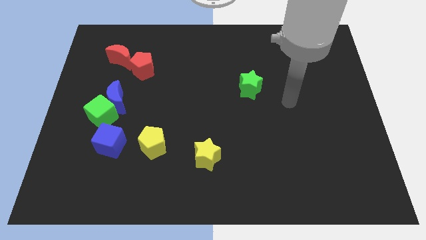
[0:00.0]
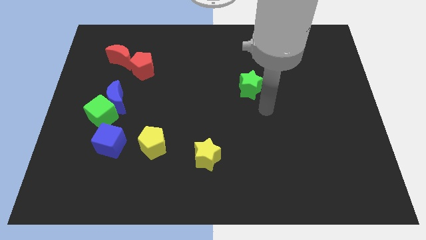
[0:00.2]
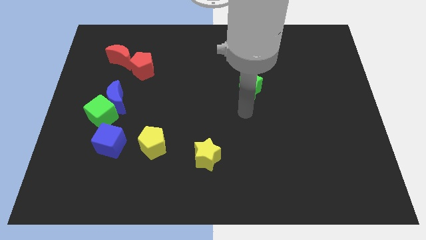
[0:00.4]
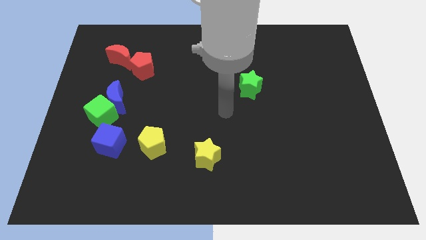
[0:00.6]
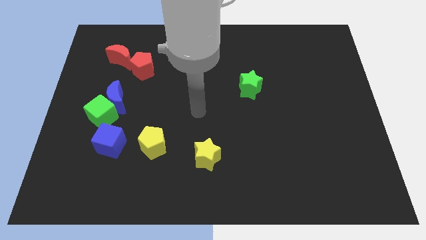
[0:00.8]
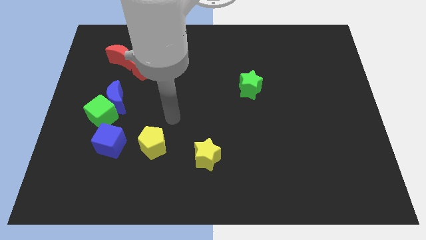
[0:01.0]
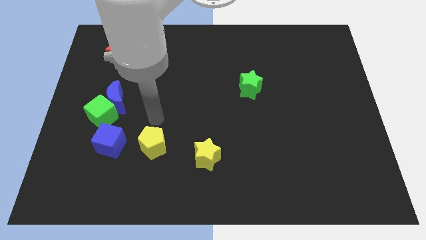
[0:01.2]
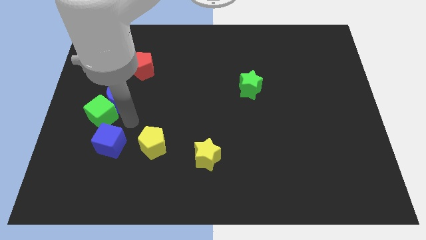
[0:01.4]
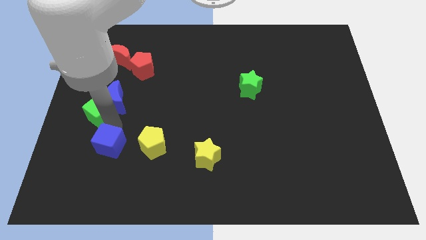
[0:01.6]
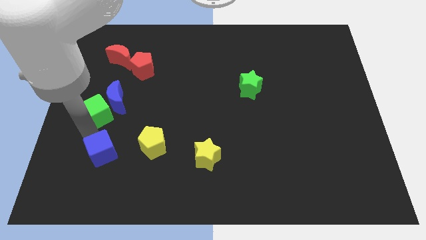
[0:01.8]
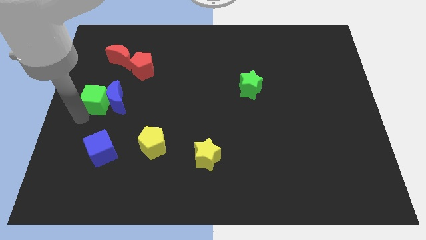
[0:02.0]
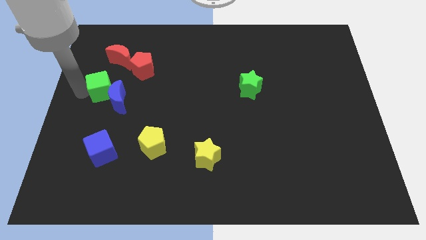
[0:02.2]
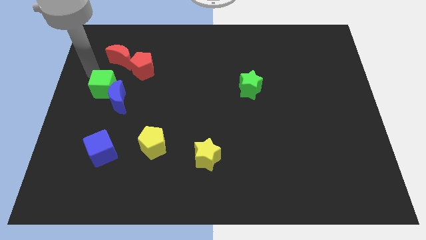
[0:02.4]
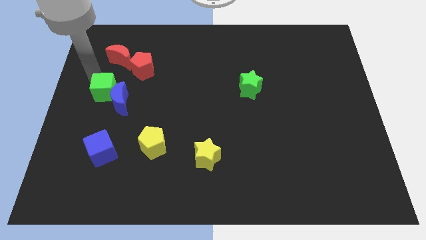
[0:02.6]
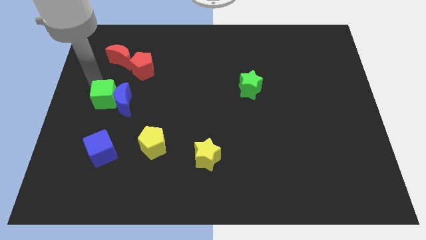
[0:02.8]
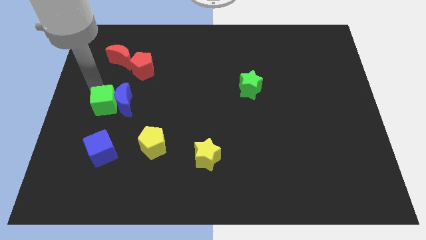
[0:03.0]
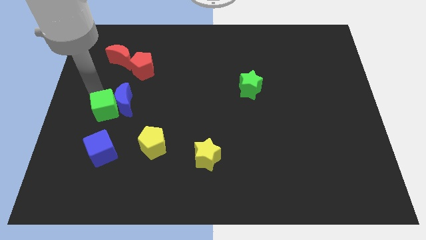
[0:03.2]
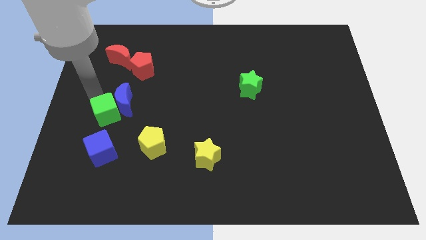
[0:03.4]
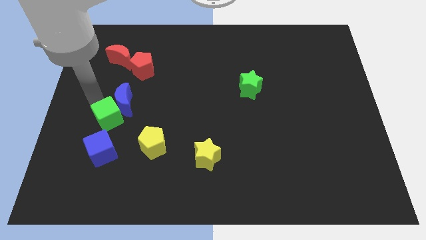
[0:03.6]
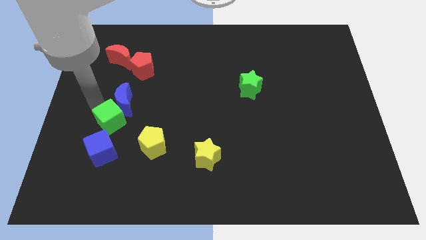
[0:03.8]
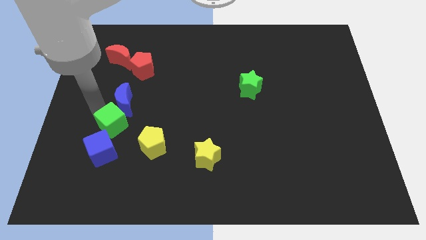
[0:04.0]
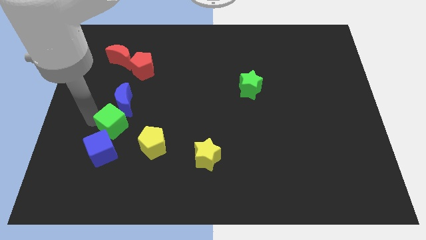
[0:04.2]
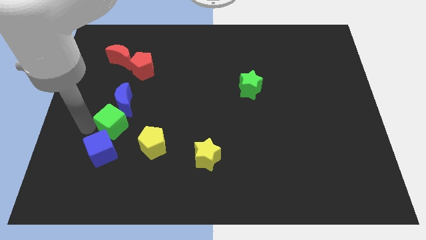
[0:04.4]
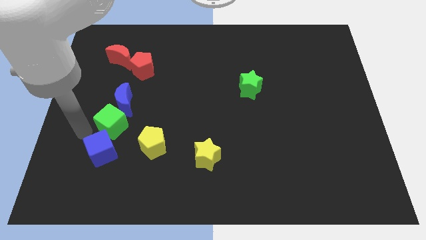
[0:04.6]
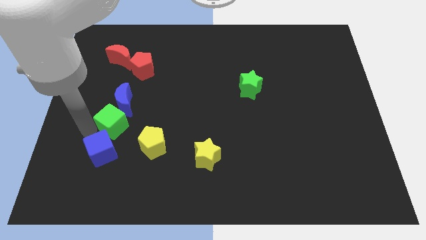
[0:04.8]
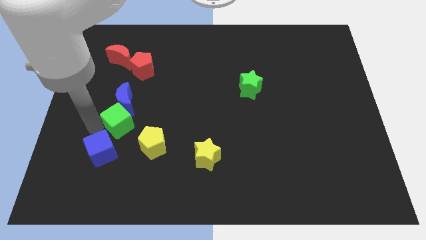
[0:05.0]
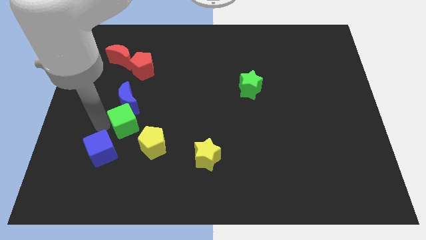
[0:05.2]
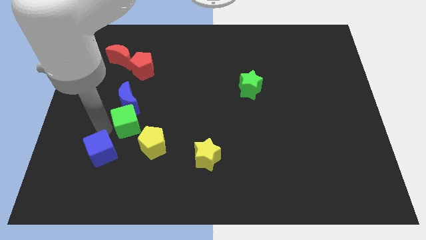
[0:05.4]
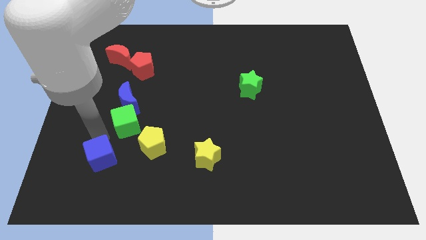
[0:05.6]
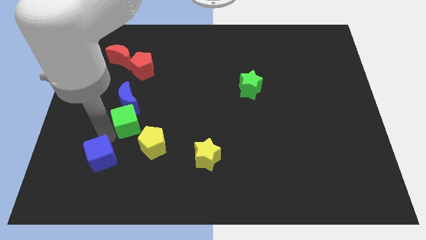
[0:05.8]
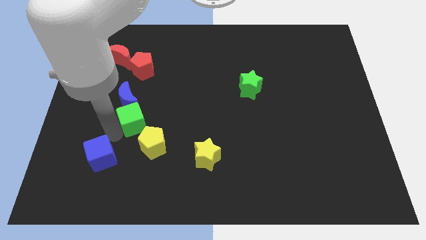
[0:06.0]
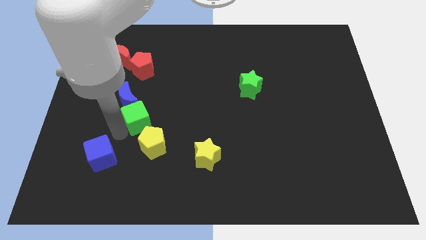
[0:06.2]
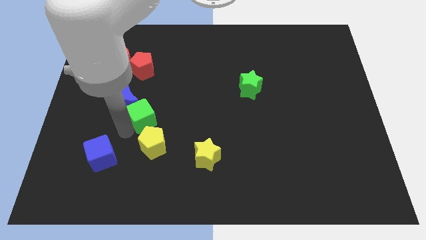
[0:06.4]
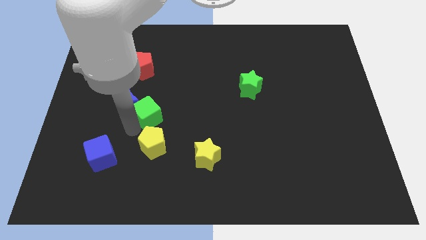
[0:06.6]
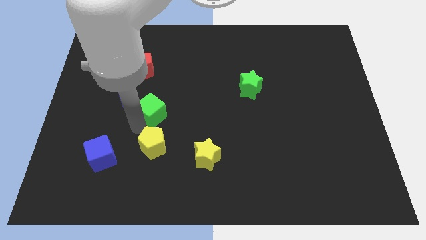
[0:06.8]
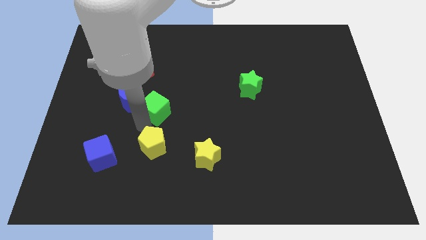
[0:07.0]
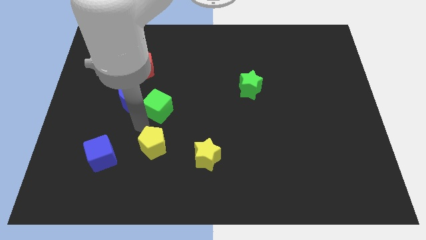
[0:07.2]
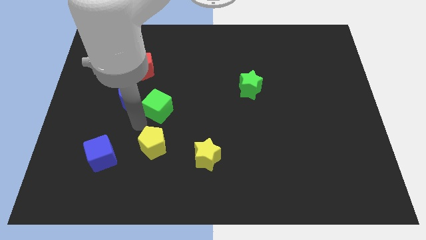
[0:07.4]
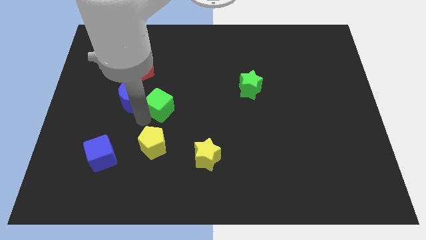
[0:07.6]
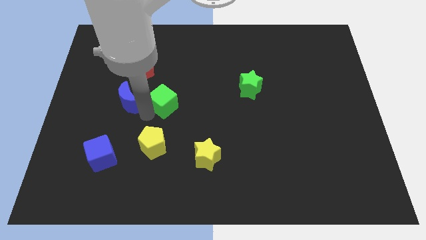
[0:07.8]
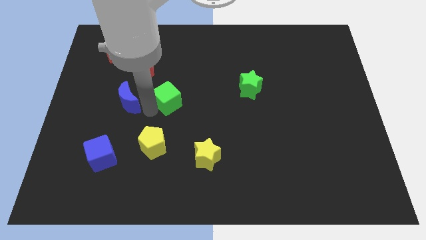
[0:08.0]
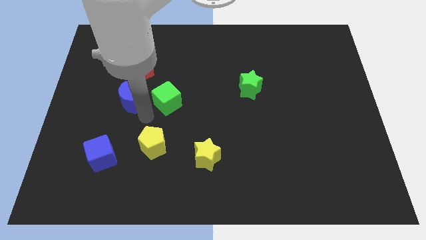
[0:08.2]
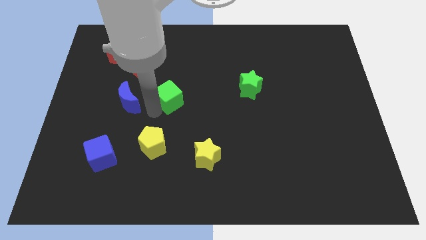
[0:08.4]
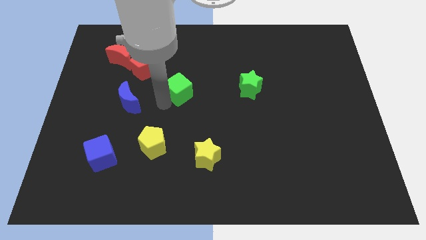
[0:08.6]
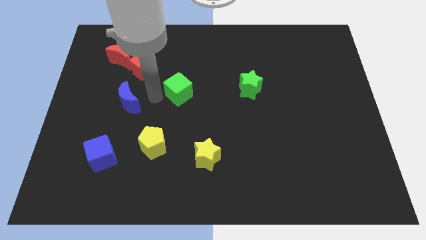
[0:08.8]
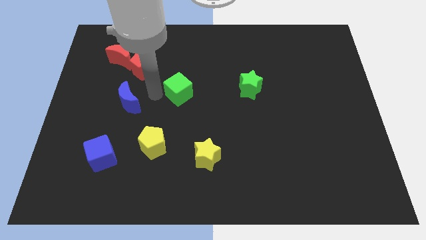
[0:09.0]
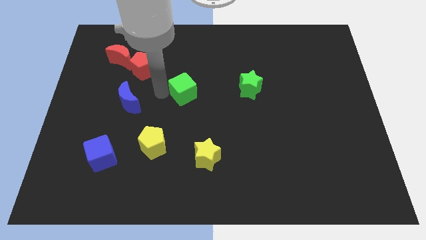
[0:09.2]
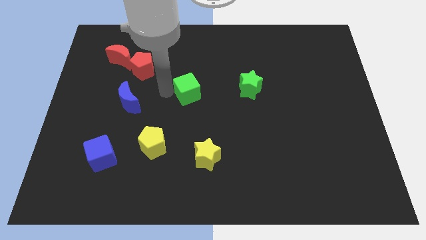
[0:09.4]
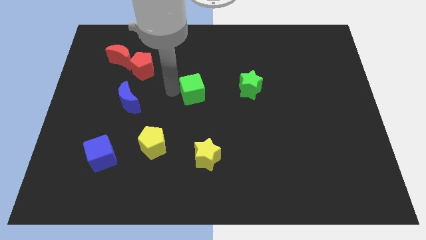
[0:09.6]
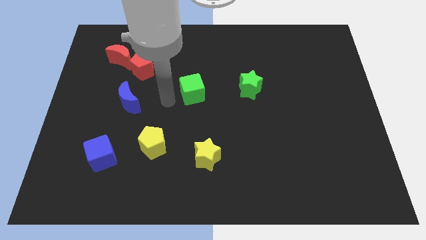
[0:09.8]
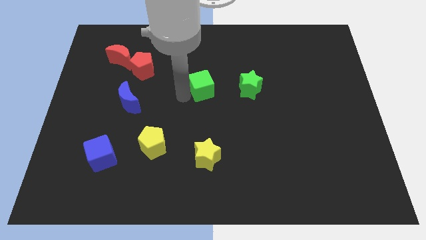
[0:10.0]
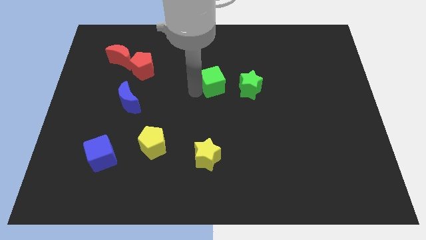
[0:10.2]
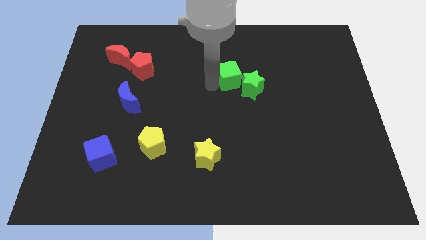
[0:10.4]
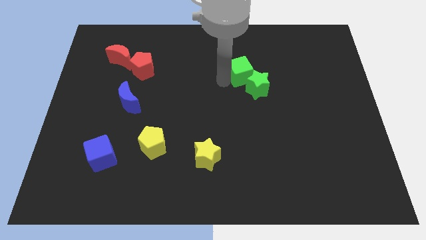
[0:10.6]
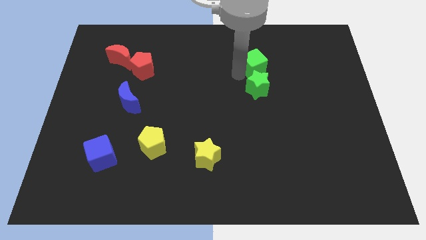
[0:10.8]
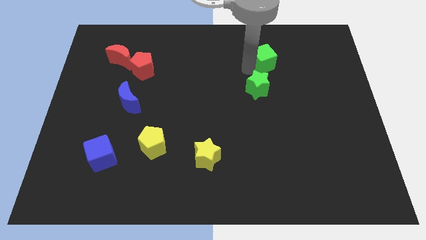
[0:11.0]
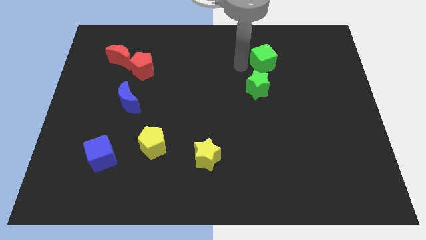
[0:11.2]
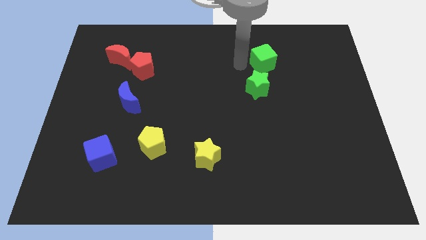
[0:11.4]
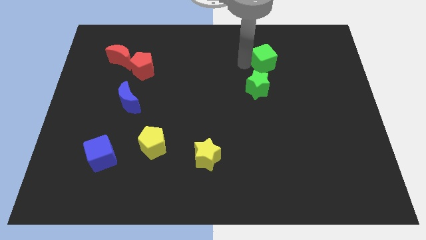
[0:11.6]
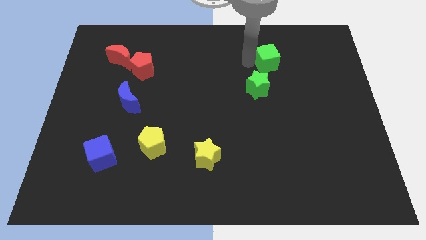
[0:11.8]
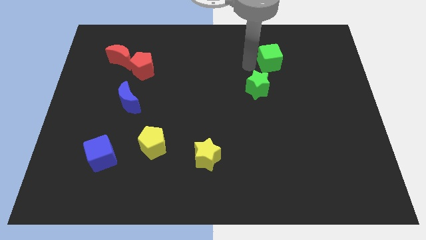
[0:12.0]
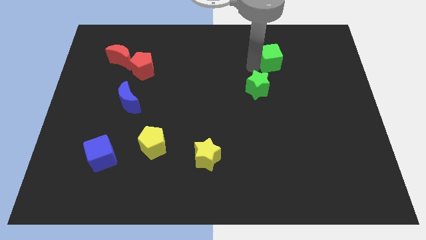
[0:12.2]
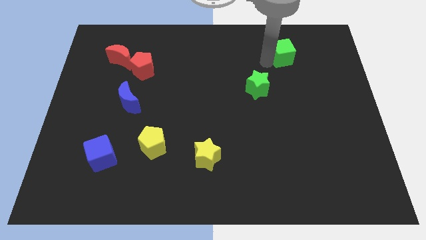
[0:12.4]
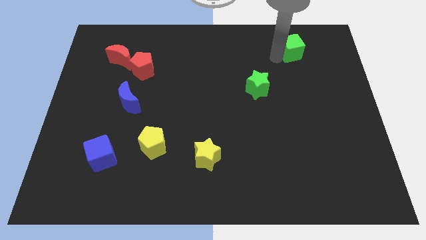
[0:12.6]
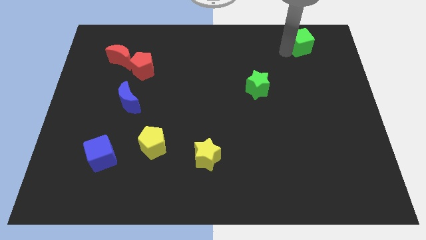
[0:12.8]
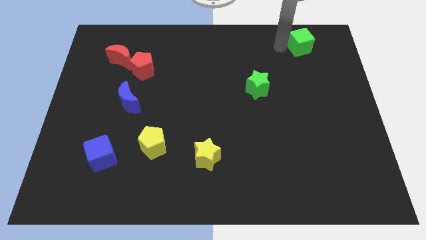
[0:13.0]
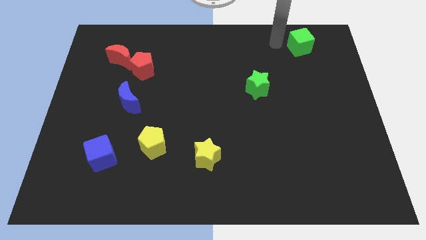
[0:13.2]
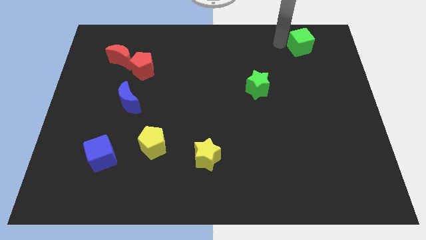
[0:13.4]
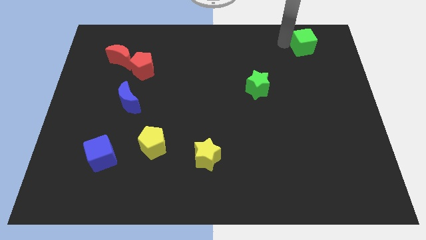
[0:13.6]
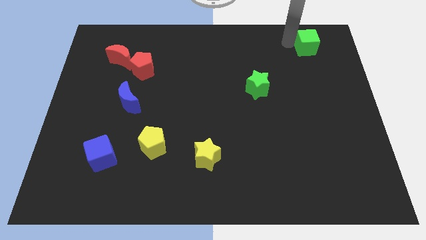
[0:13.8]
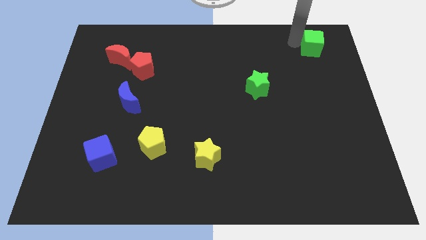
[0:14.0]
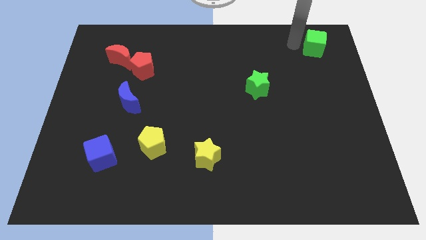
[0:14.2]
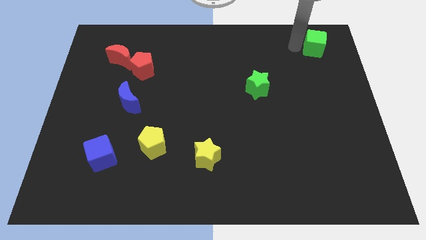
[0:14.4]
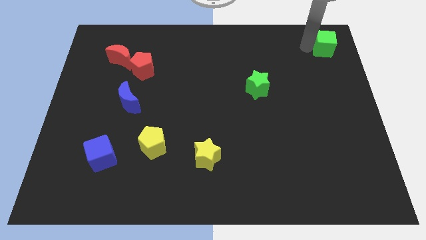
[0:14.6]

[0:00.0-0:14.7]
move the green cube to the top right corner
